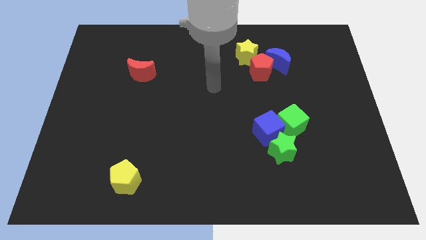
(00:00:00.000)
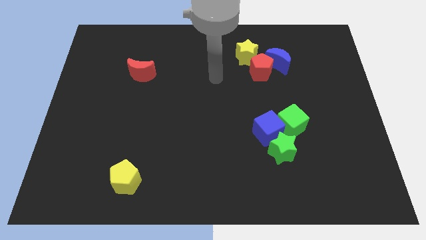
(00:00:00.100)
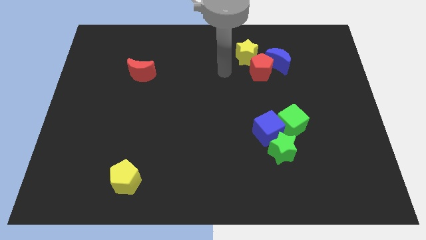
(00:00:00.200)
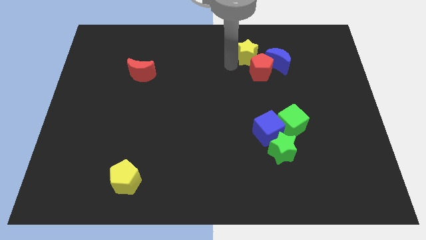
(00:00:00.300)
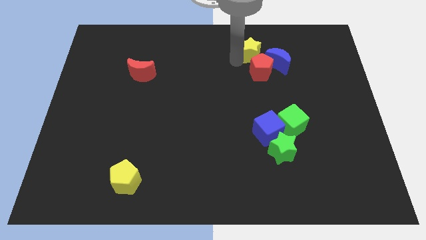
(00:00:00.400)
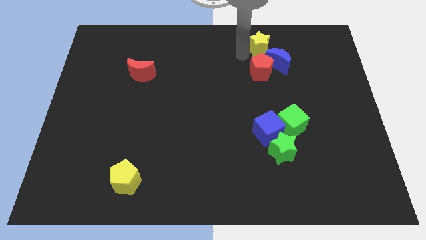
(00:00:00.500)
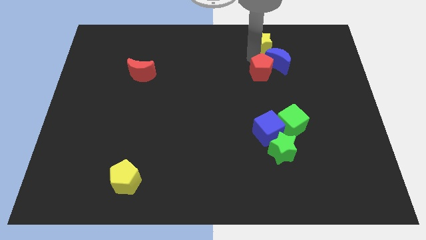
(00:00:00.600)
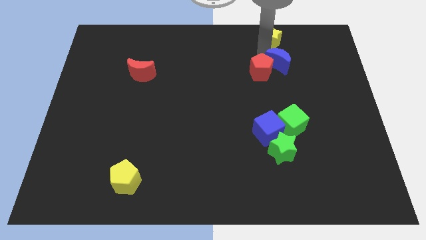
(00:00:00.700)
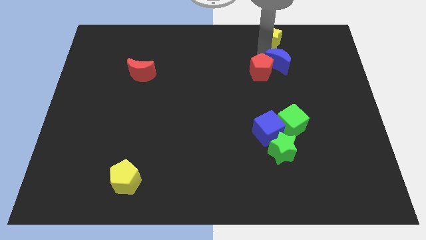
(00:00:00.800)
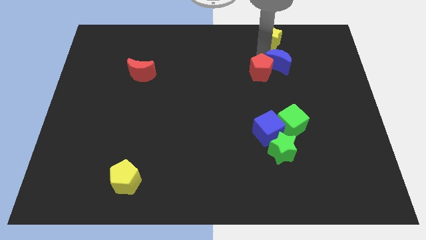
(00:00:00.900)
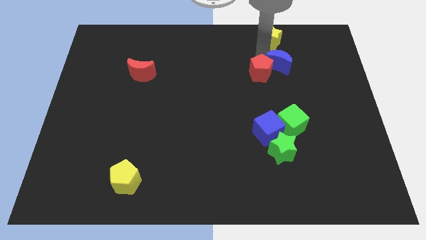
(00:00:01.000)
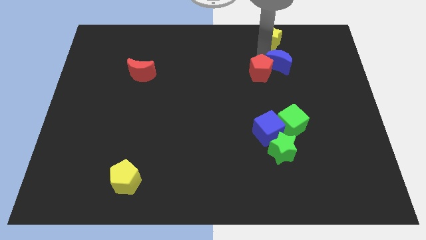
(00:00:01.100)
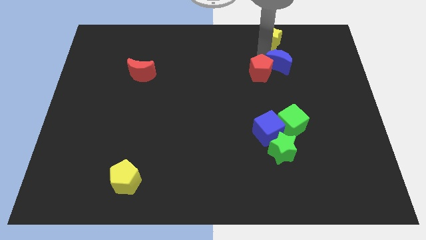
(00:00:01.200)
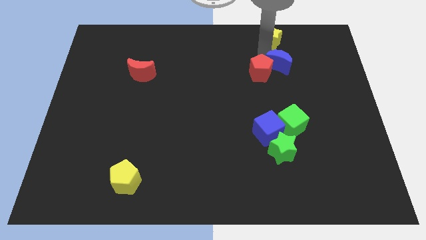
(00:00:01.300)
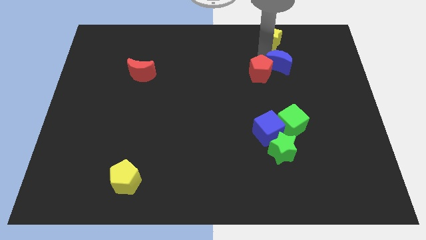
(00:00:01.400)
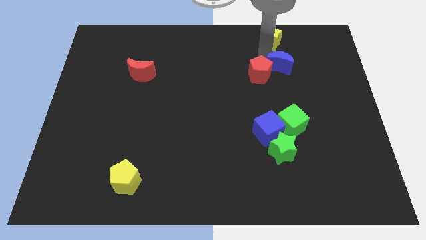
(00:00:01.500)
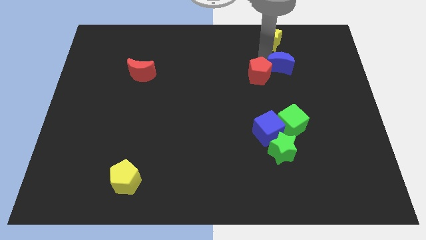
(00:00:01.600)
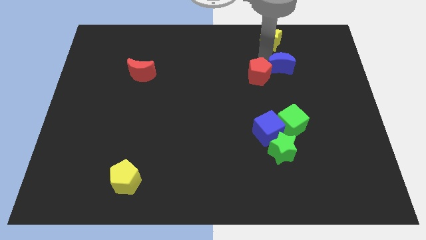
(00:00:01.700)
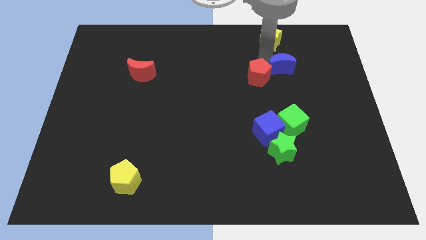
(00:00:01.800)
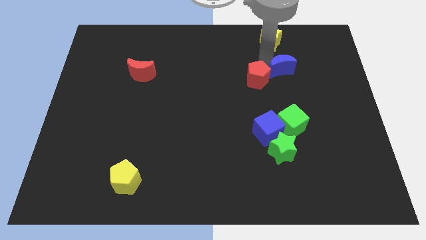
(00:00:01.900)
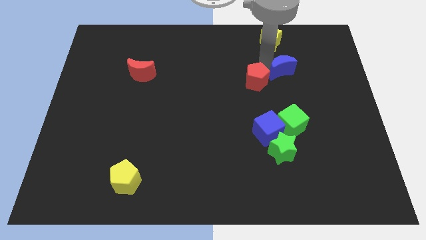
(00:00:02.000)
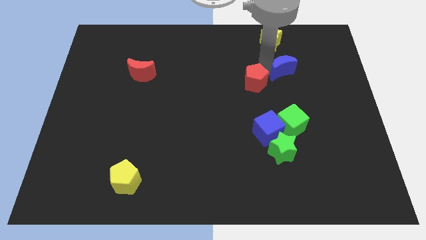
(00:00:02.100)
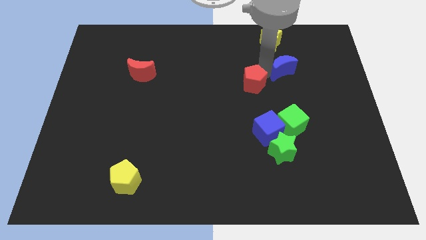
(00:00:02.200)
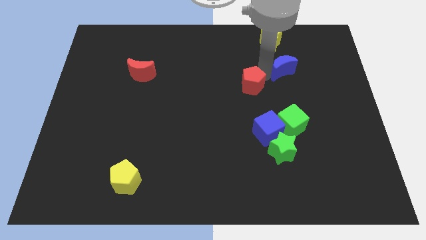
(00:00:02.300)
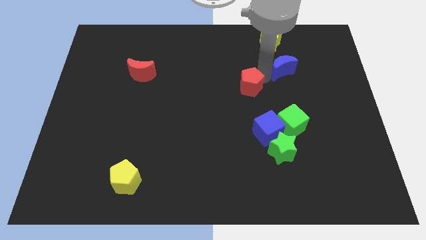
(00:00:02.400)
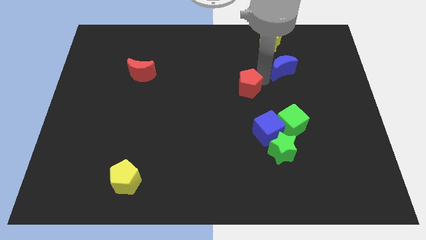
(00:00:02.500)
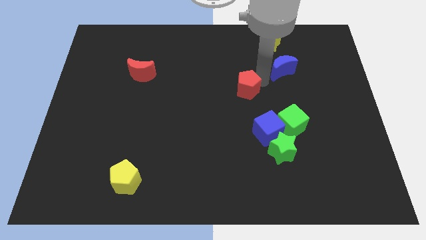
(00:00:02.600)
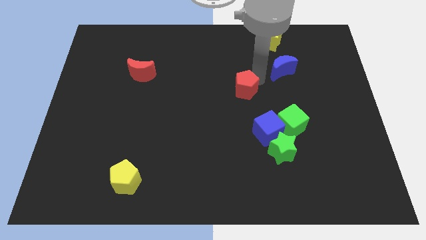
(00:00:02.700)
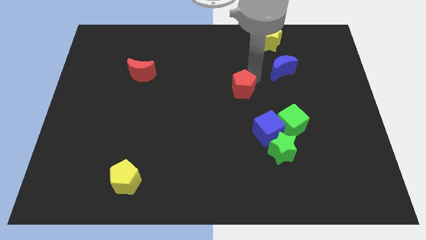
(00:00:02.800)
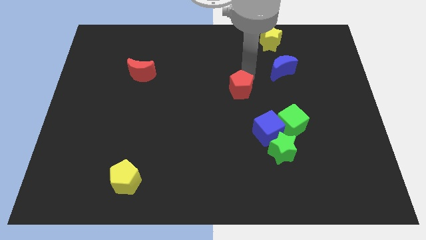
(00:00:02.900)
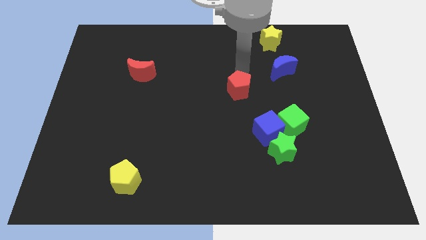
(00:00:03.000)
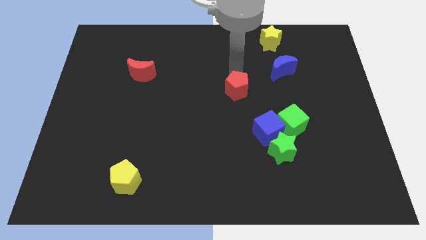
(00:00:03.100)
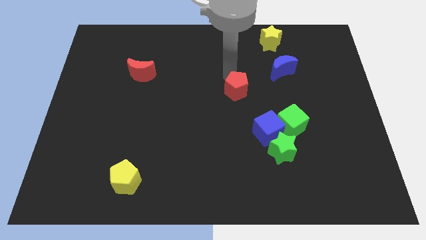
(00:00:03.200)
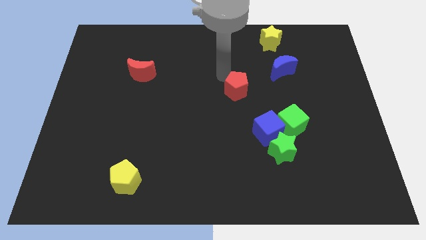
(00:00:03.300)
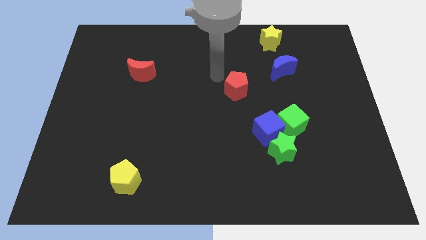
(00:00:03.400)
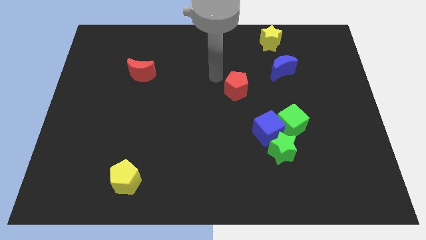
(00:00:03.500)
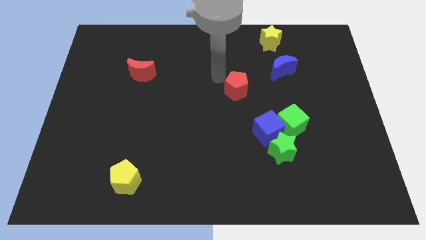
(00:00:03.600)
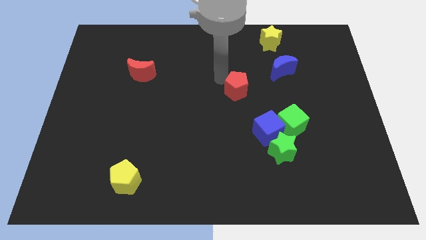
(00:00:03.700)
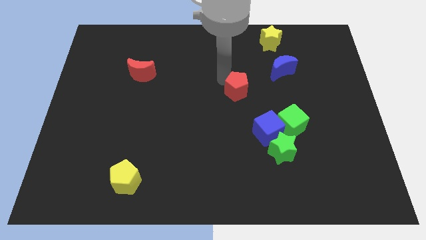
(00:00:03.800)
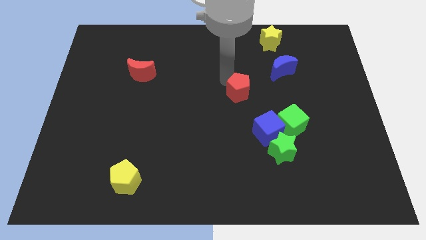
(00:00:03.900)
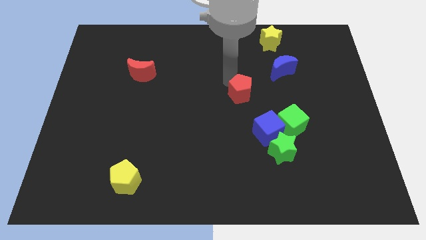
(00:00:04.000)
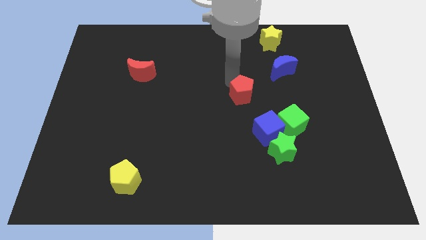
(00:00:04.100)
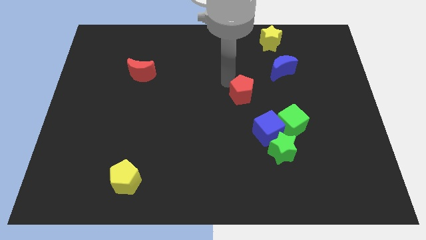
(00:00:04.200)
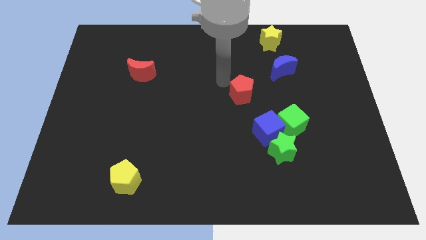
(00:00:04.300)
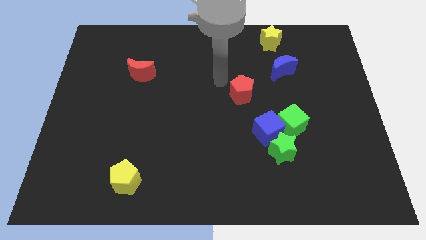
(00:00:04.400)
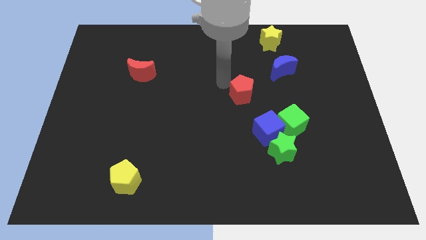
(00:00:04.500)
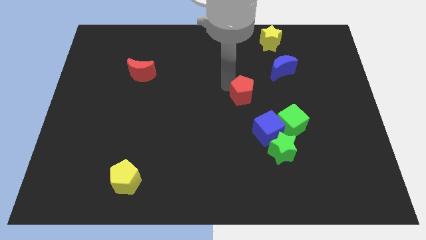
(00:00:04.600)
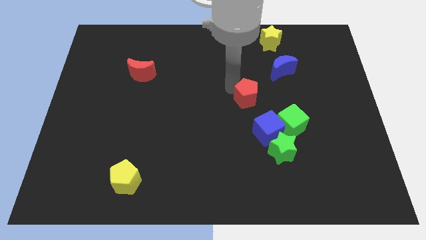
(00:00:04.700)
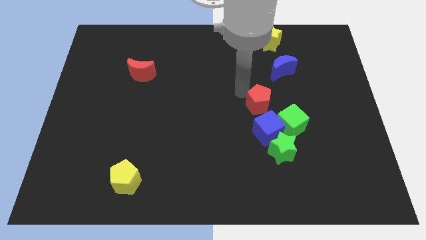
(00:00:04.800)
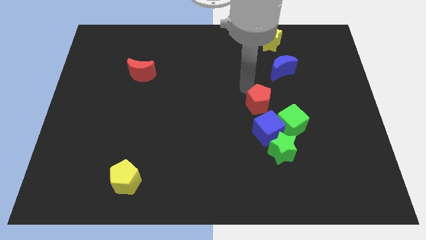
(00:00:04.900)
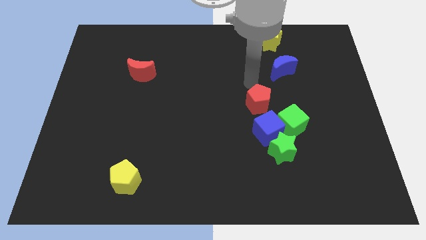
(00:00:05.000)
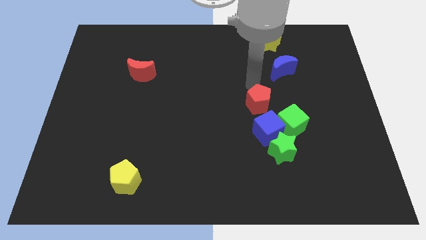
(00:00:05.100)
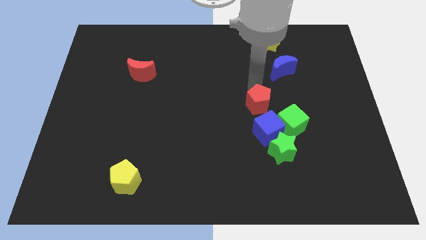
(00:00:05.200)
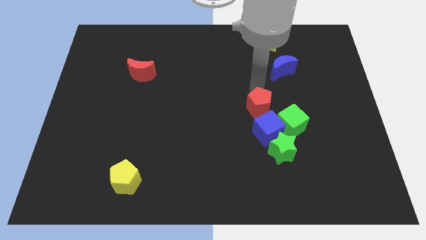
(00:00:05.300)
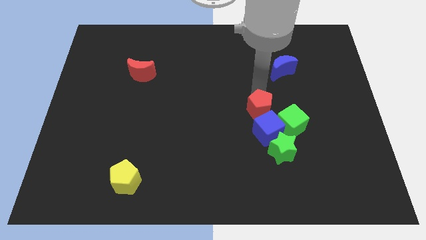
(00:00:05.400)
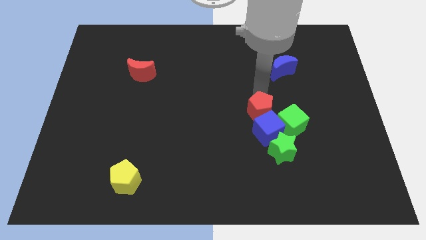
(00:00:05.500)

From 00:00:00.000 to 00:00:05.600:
slide the red pentagon close to the blue cube

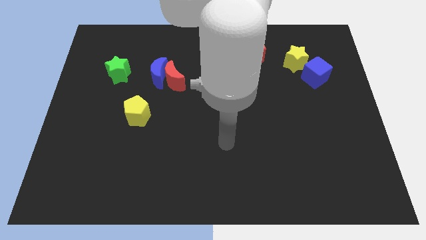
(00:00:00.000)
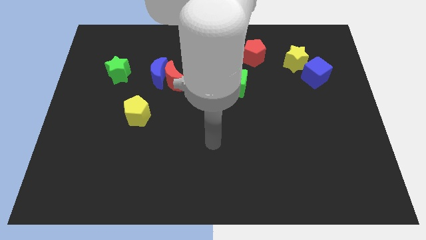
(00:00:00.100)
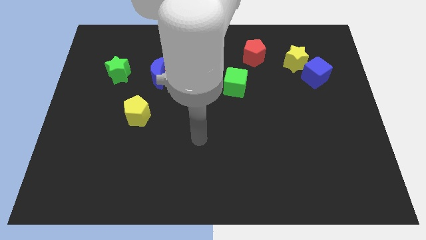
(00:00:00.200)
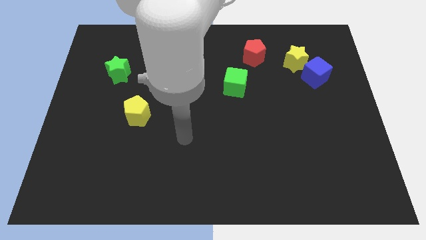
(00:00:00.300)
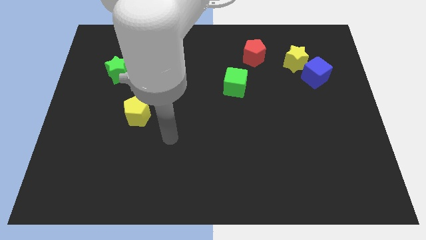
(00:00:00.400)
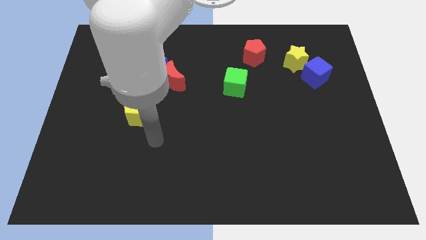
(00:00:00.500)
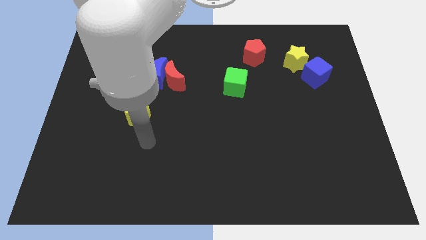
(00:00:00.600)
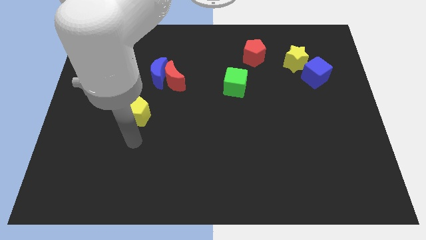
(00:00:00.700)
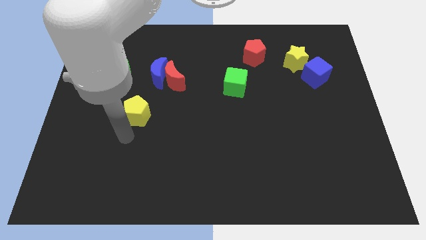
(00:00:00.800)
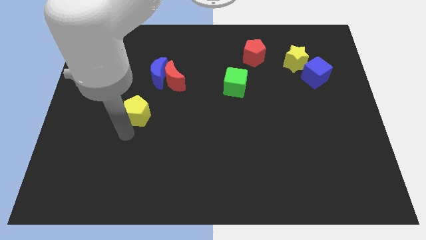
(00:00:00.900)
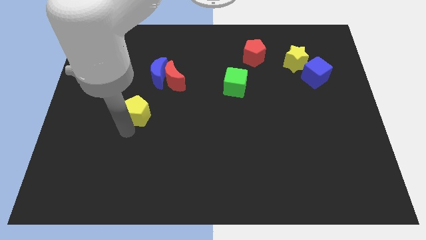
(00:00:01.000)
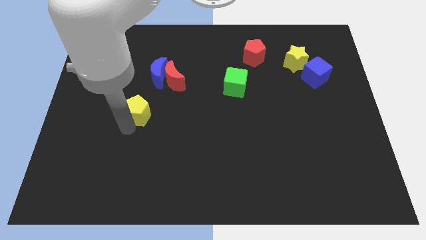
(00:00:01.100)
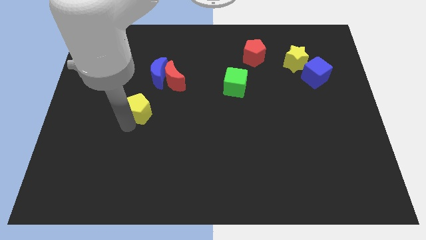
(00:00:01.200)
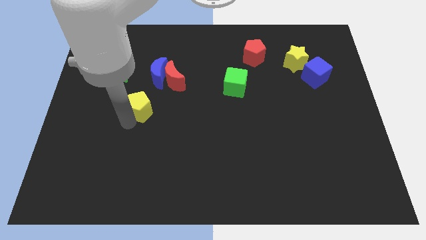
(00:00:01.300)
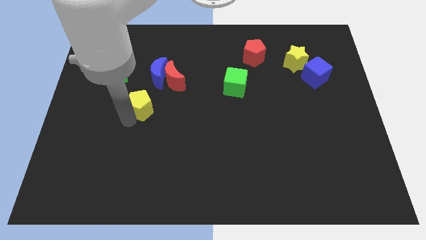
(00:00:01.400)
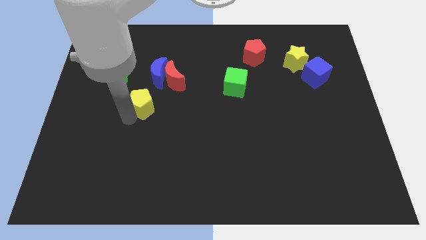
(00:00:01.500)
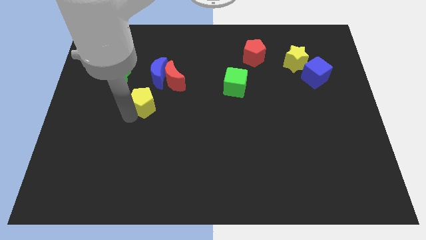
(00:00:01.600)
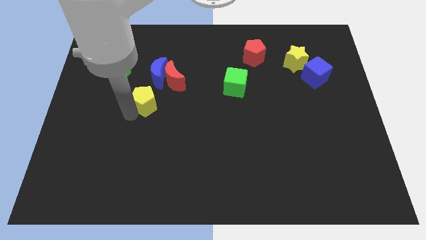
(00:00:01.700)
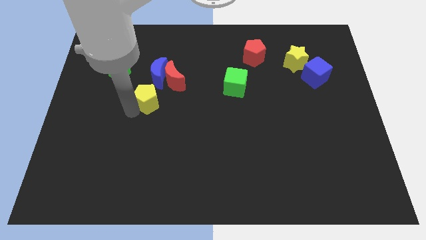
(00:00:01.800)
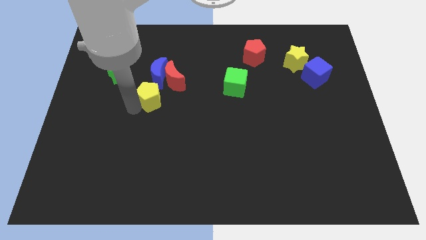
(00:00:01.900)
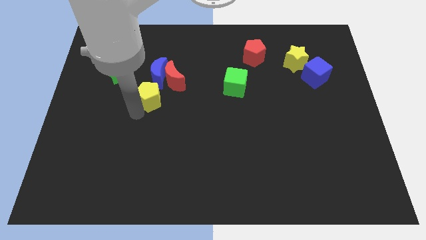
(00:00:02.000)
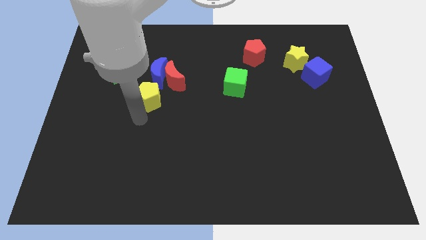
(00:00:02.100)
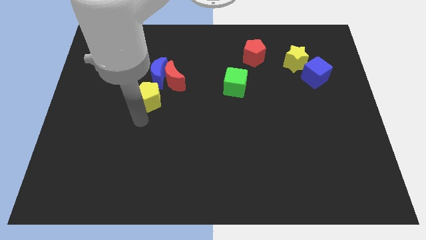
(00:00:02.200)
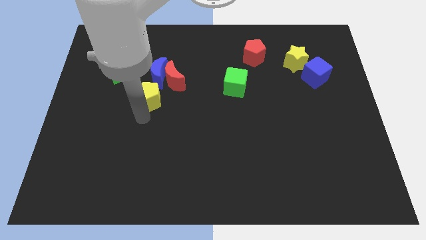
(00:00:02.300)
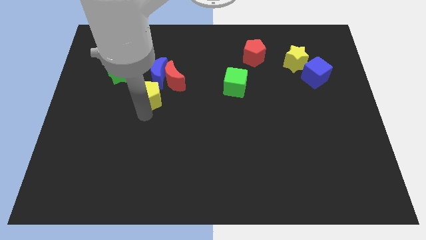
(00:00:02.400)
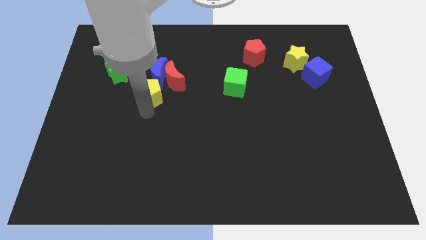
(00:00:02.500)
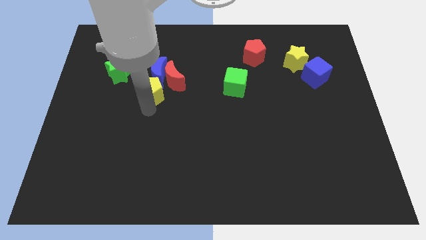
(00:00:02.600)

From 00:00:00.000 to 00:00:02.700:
move the yellow pentagon towards the blue moon
